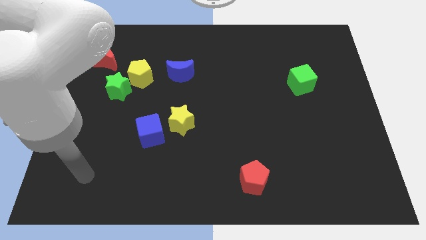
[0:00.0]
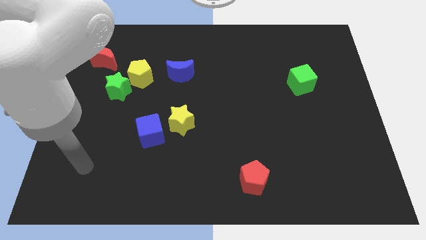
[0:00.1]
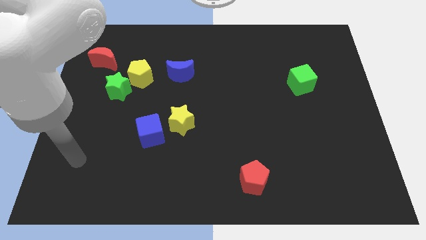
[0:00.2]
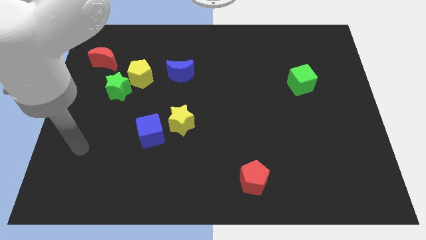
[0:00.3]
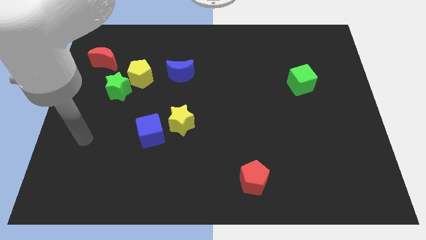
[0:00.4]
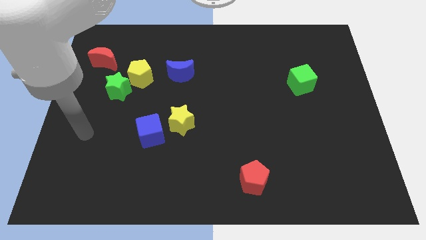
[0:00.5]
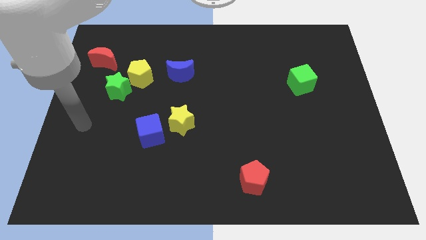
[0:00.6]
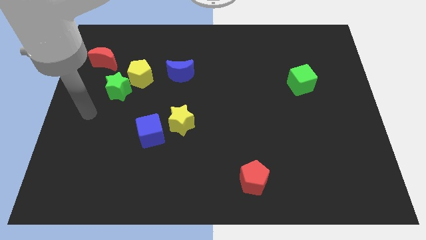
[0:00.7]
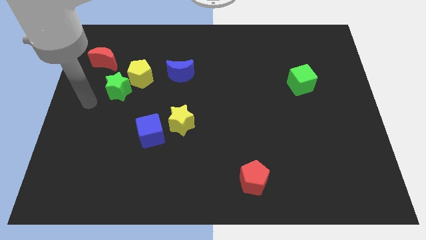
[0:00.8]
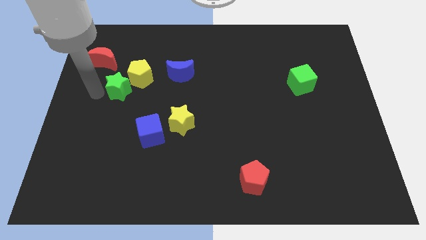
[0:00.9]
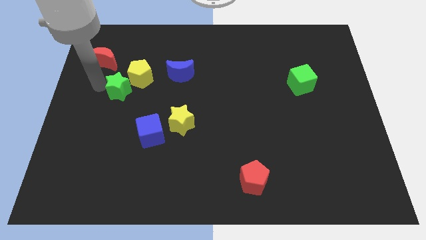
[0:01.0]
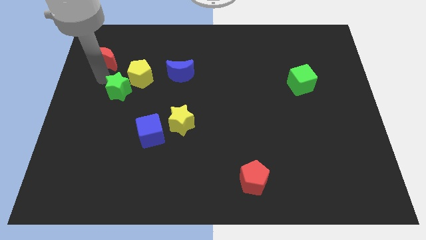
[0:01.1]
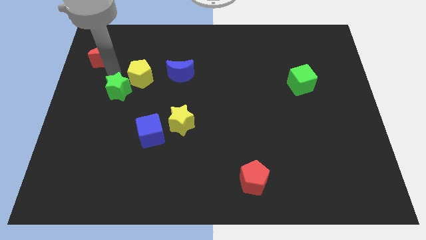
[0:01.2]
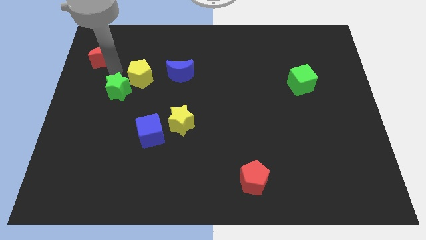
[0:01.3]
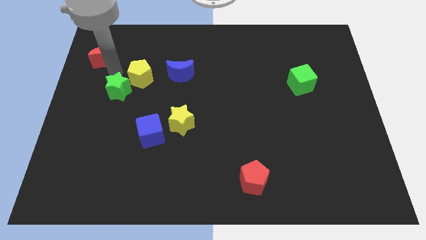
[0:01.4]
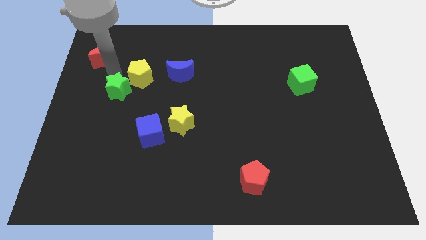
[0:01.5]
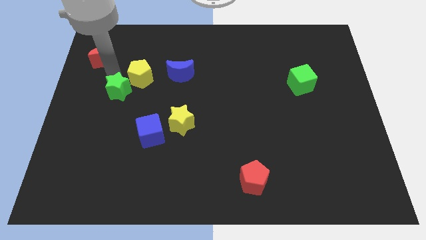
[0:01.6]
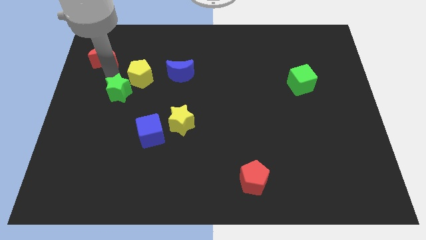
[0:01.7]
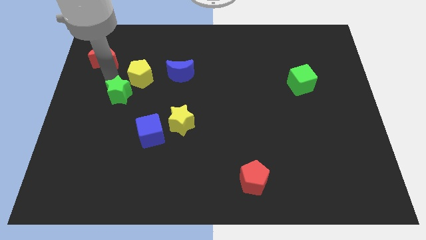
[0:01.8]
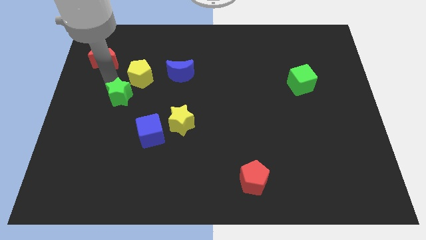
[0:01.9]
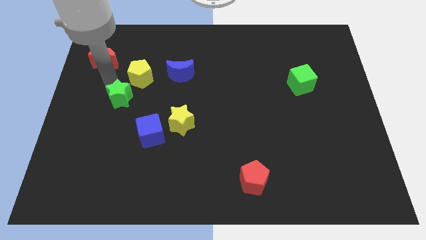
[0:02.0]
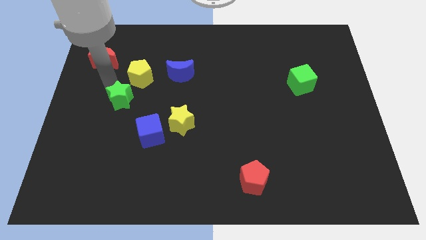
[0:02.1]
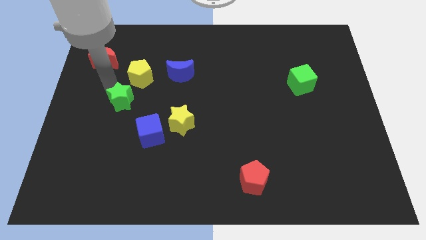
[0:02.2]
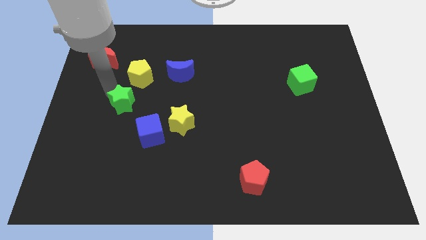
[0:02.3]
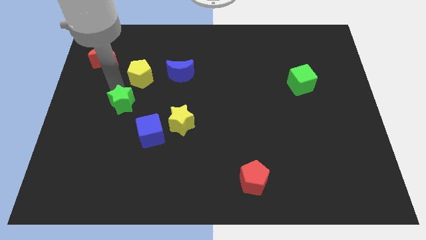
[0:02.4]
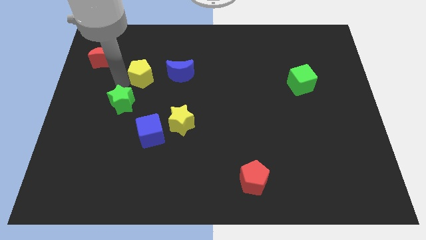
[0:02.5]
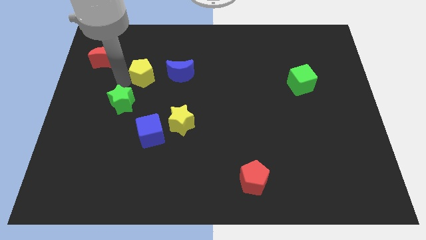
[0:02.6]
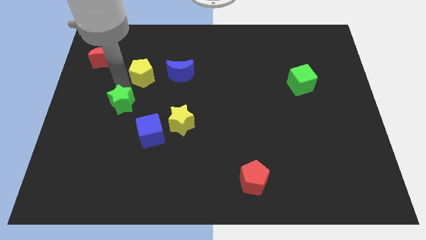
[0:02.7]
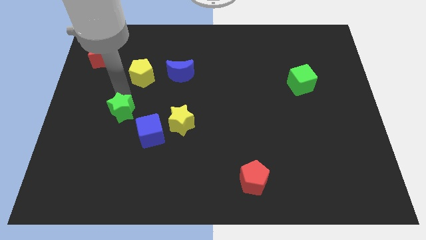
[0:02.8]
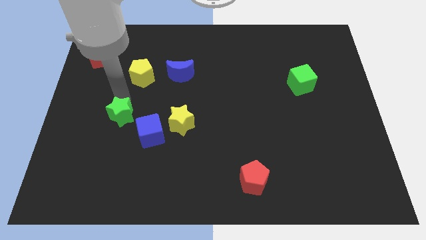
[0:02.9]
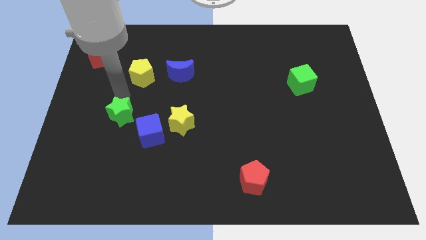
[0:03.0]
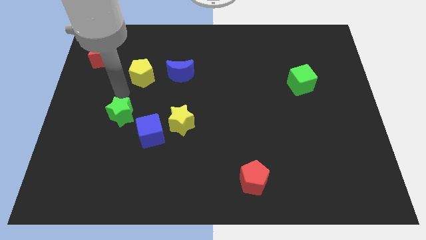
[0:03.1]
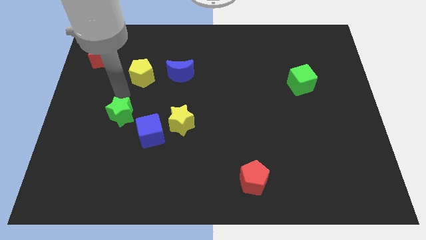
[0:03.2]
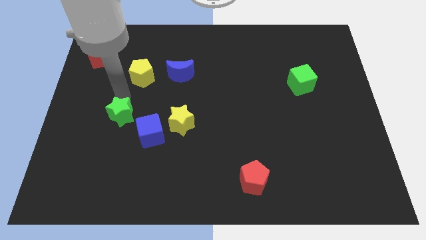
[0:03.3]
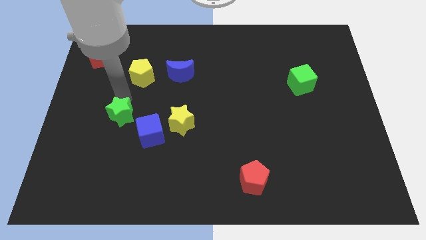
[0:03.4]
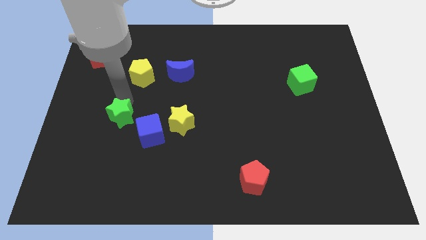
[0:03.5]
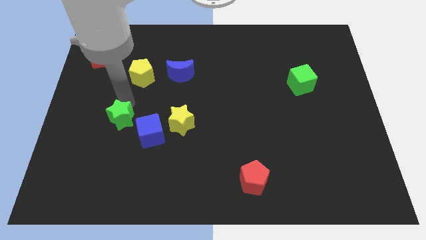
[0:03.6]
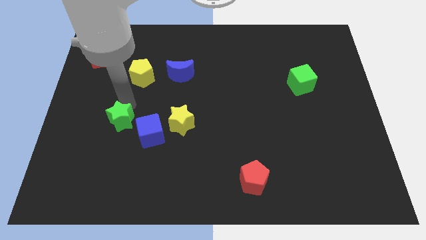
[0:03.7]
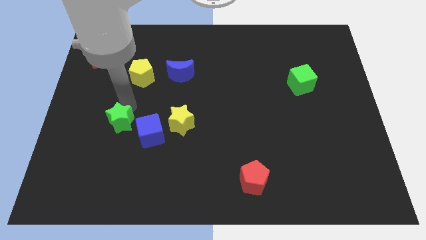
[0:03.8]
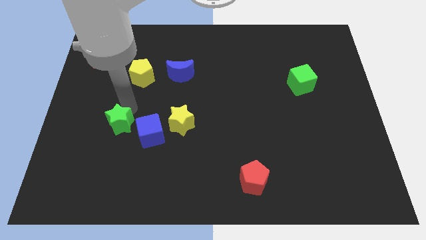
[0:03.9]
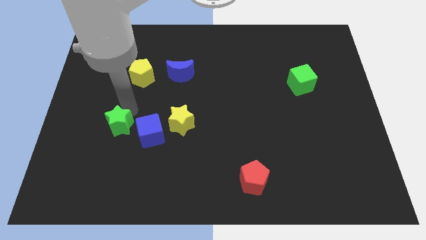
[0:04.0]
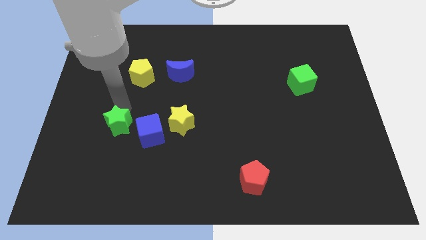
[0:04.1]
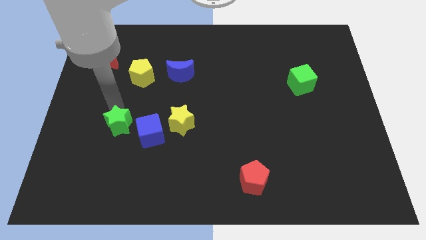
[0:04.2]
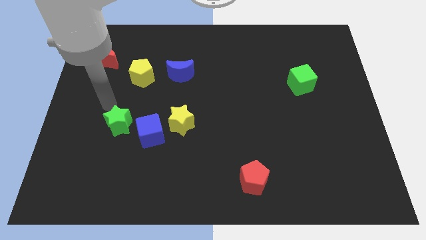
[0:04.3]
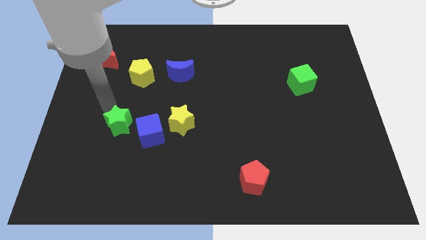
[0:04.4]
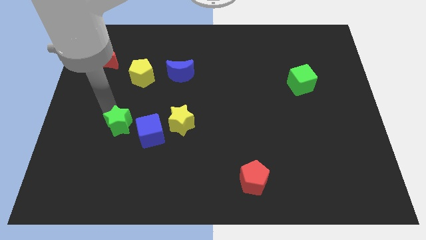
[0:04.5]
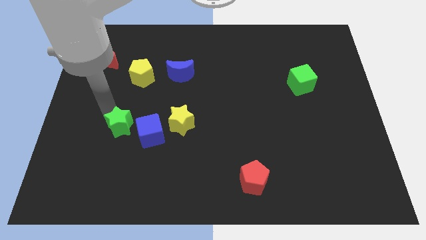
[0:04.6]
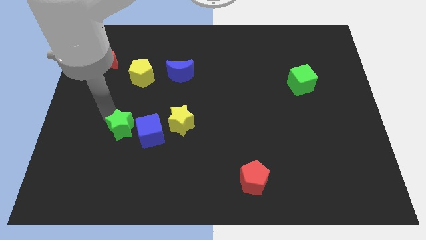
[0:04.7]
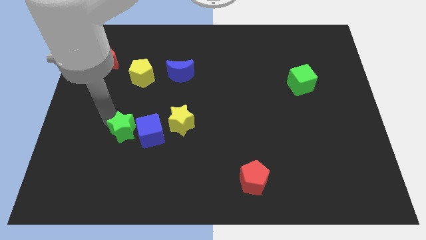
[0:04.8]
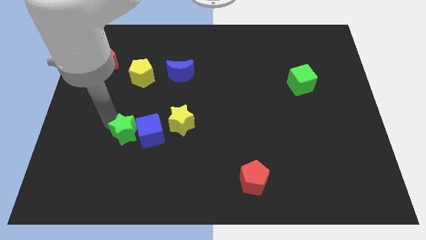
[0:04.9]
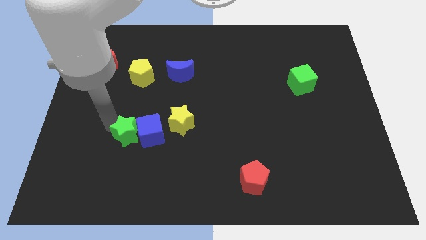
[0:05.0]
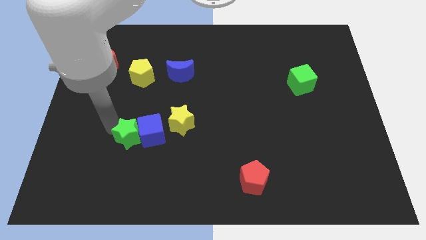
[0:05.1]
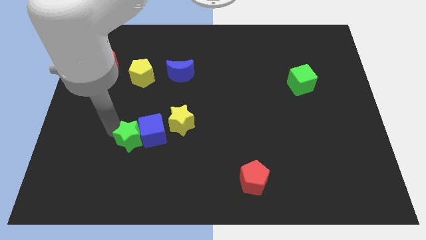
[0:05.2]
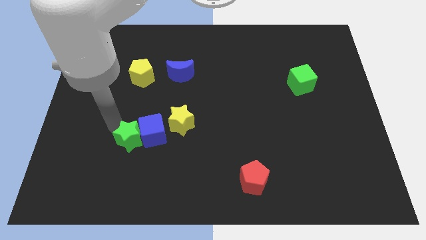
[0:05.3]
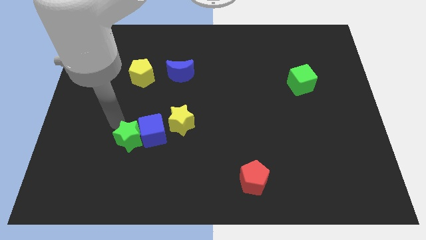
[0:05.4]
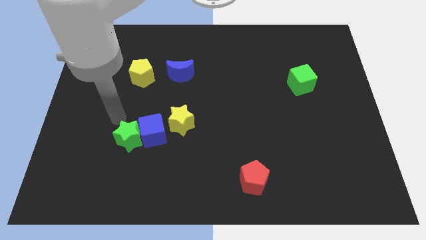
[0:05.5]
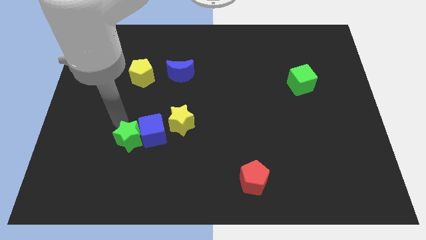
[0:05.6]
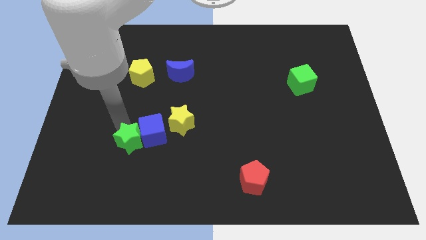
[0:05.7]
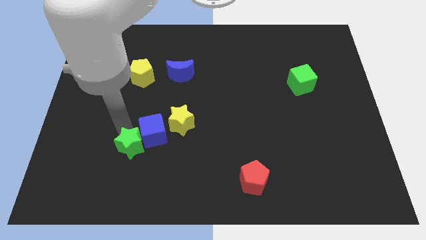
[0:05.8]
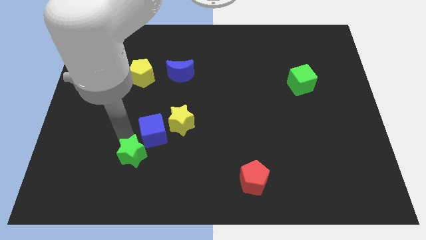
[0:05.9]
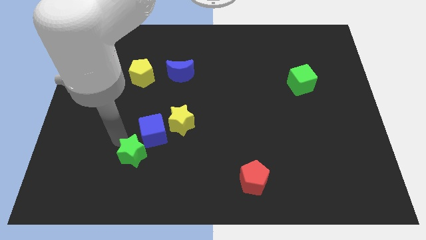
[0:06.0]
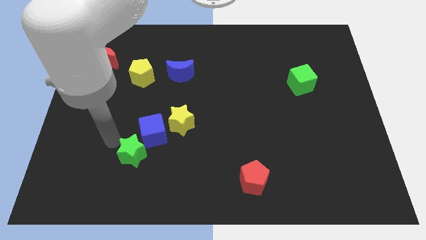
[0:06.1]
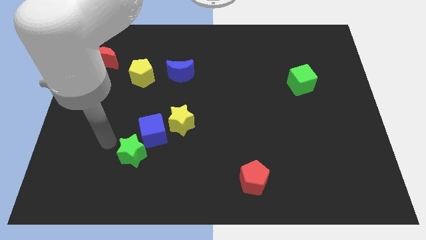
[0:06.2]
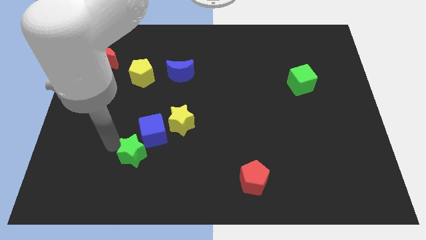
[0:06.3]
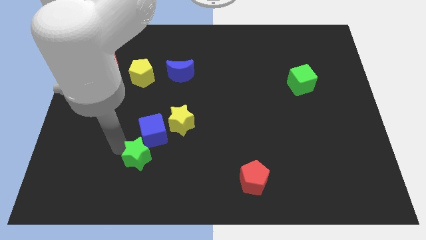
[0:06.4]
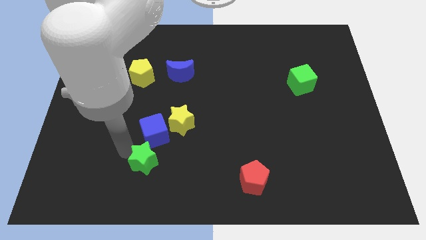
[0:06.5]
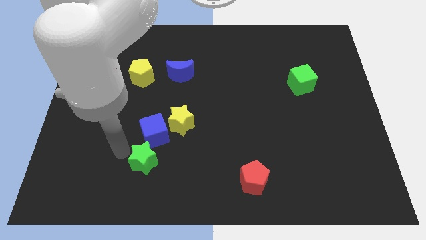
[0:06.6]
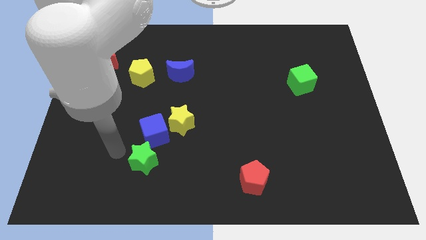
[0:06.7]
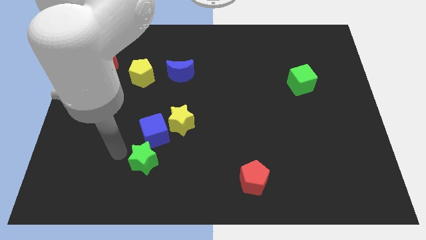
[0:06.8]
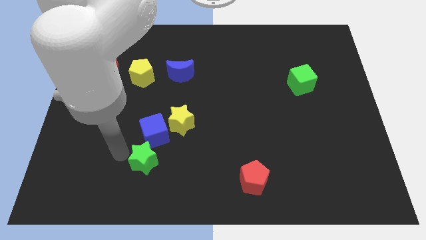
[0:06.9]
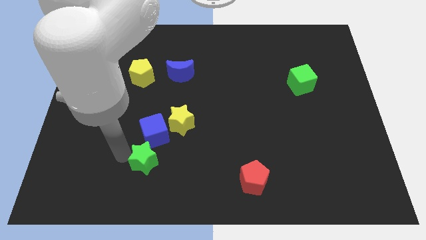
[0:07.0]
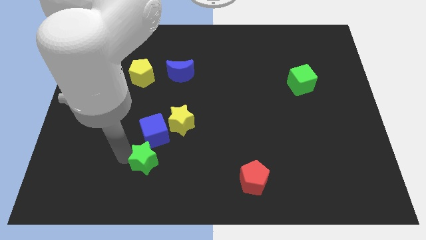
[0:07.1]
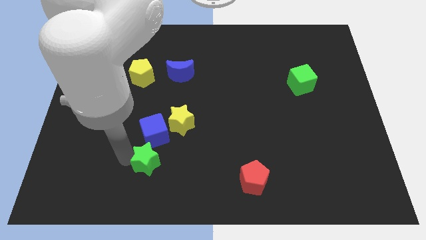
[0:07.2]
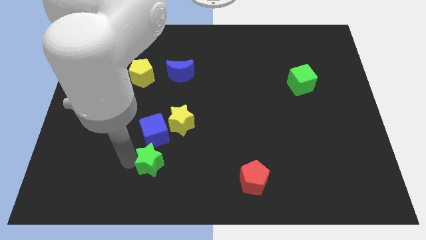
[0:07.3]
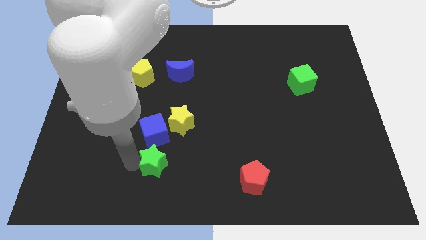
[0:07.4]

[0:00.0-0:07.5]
move the green star down and then to the right

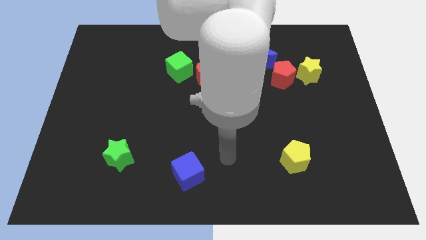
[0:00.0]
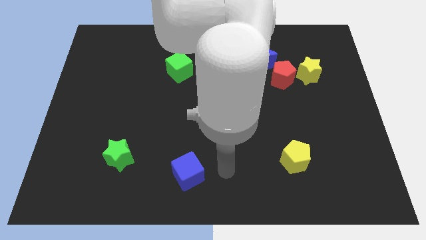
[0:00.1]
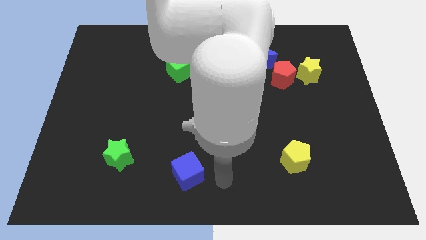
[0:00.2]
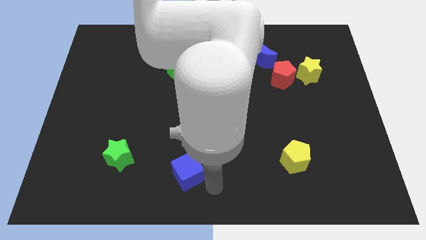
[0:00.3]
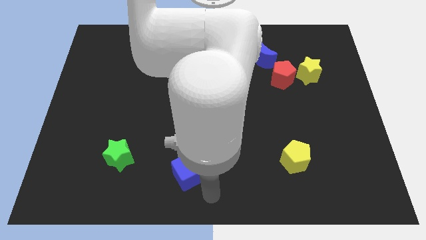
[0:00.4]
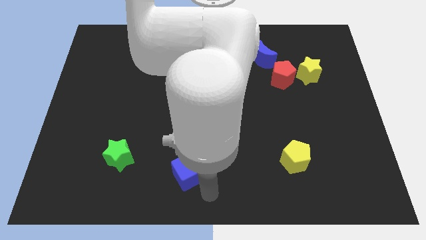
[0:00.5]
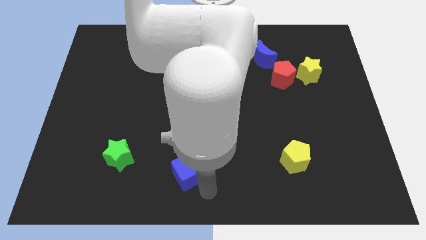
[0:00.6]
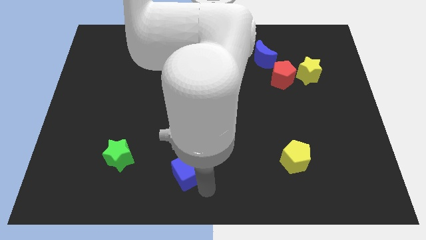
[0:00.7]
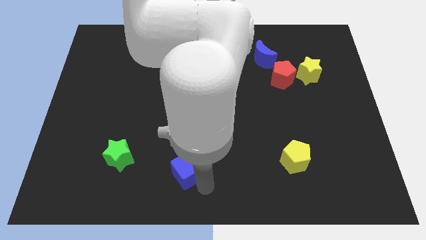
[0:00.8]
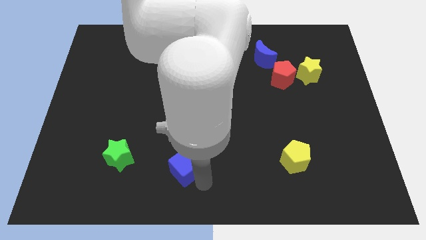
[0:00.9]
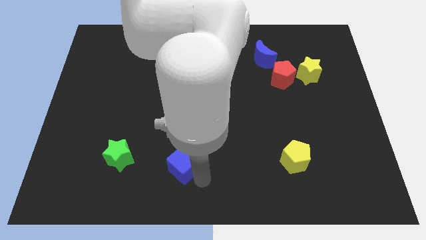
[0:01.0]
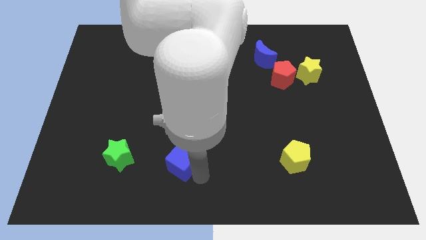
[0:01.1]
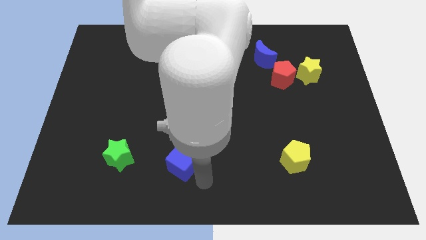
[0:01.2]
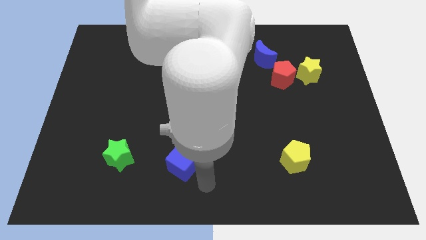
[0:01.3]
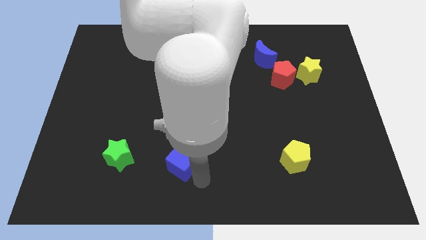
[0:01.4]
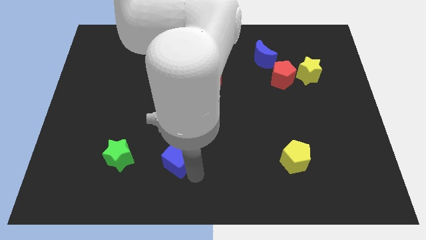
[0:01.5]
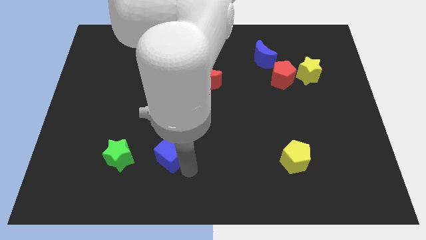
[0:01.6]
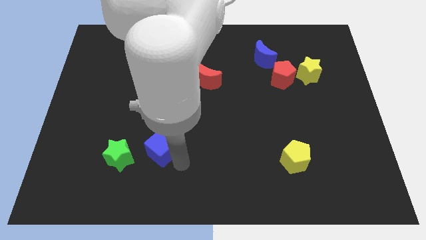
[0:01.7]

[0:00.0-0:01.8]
move the blue cube a bit diagonally upwards and to the left
